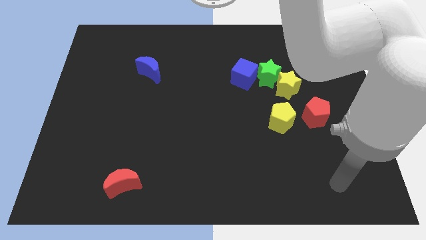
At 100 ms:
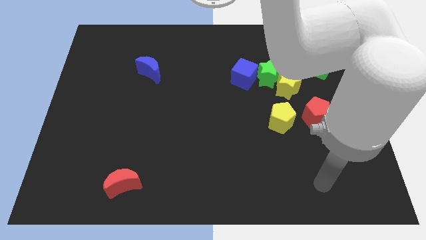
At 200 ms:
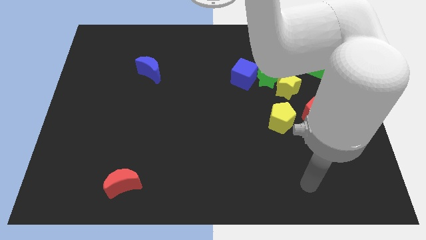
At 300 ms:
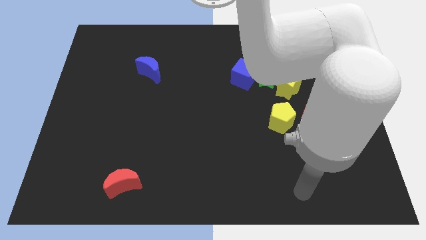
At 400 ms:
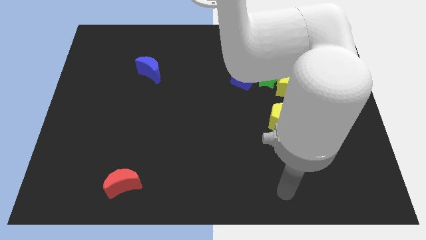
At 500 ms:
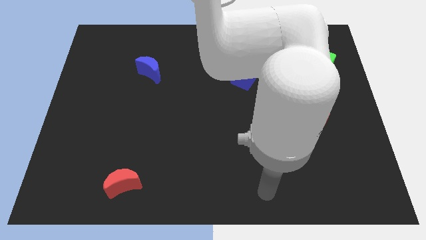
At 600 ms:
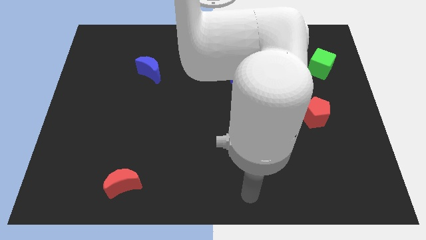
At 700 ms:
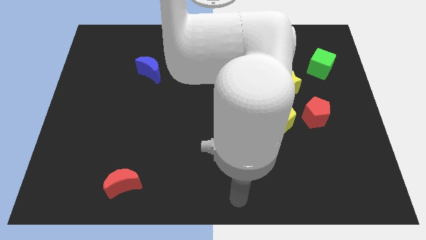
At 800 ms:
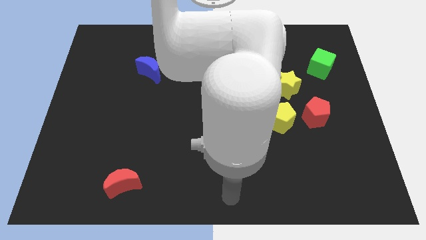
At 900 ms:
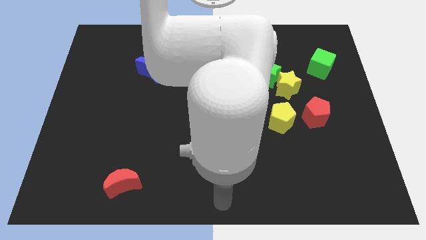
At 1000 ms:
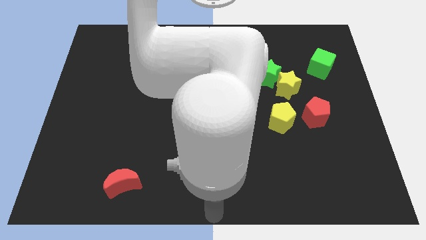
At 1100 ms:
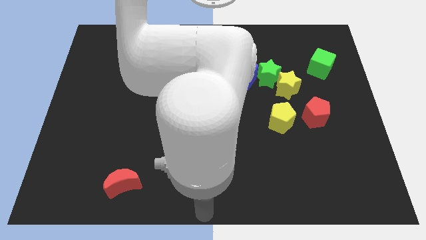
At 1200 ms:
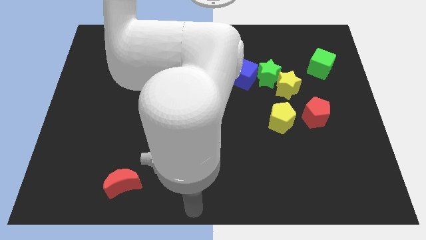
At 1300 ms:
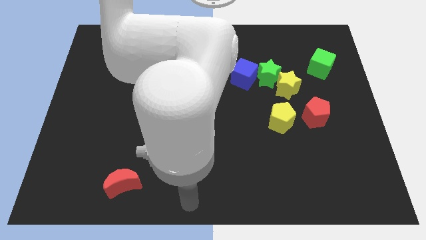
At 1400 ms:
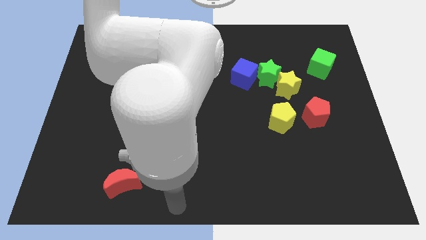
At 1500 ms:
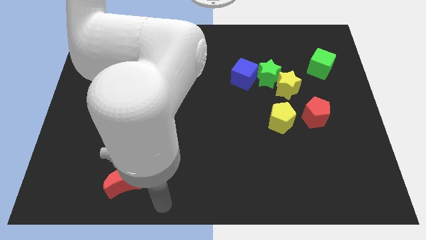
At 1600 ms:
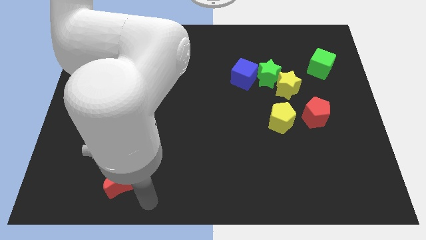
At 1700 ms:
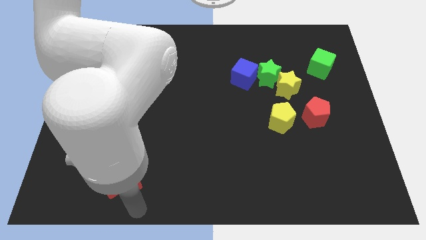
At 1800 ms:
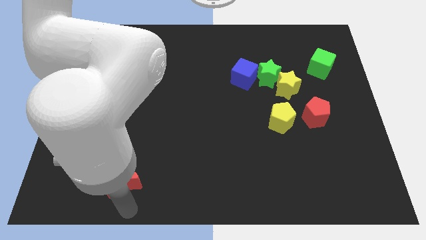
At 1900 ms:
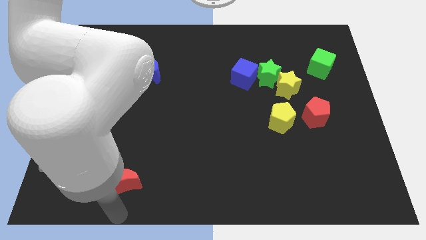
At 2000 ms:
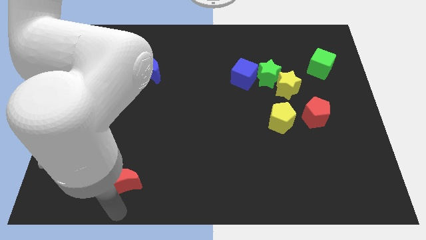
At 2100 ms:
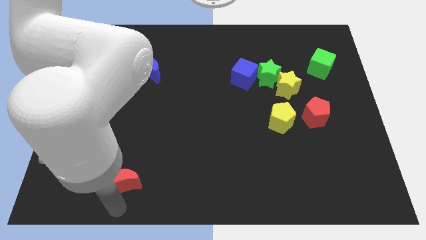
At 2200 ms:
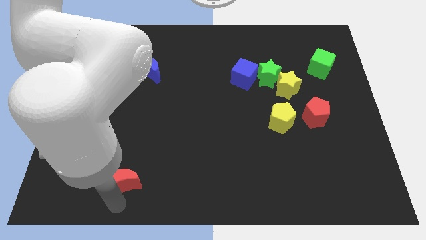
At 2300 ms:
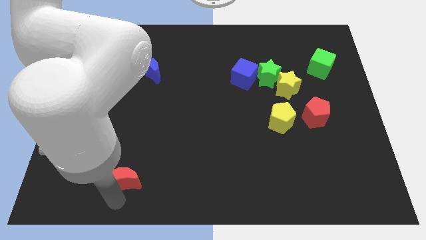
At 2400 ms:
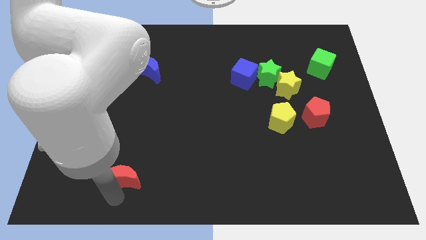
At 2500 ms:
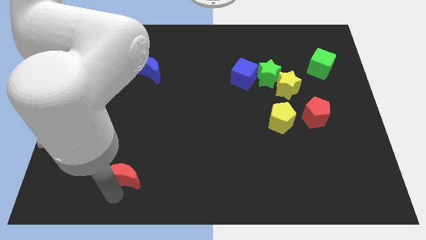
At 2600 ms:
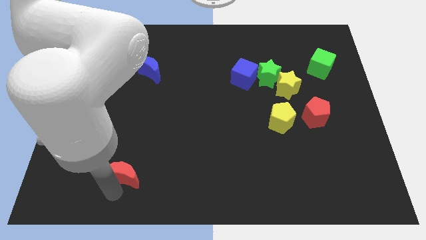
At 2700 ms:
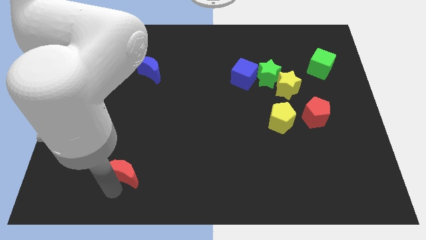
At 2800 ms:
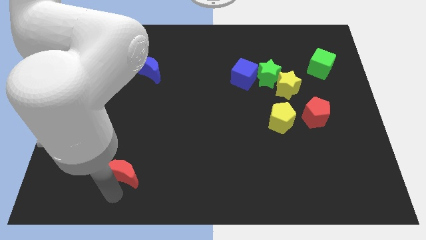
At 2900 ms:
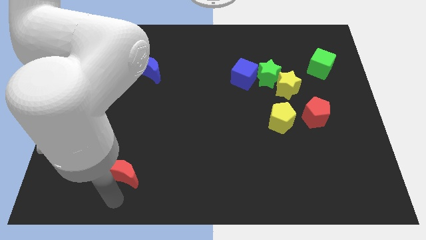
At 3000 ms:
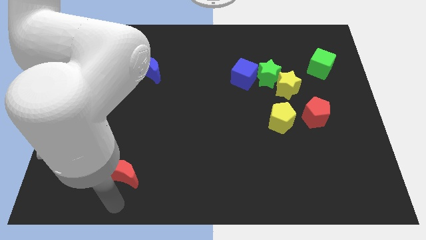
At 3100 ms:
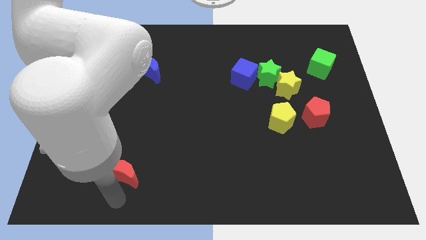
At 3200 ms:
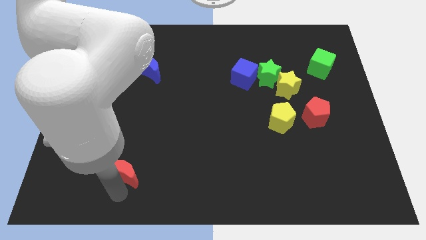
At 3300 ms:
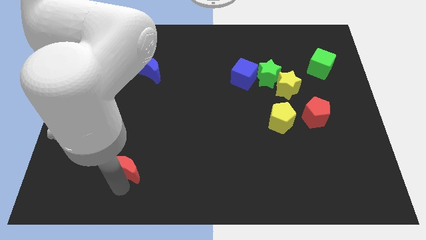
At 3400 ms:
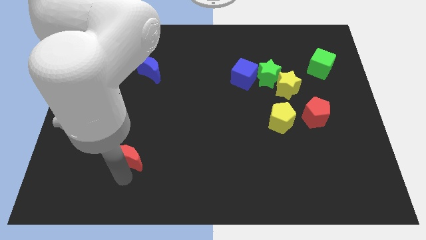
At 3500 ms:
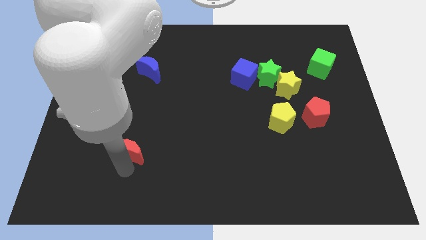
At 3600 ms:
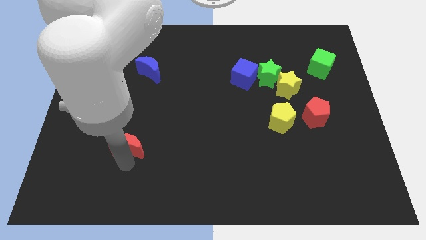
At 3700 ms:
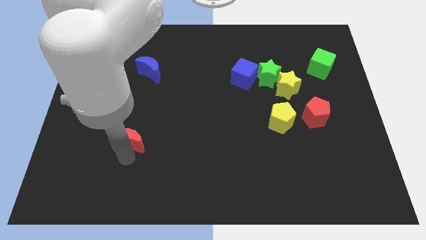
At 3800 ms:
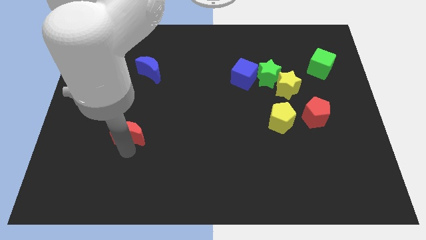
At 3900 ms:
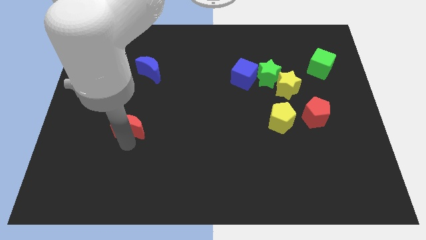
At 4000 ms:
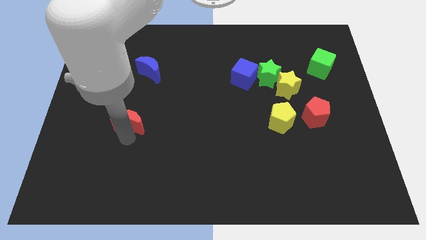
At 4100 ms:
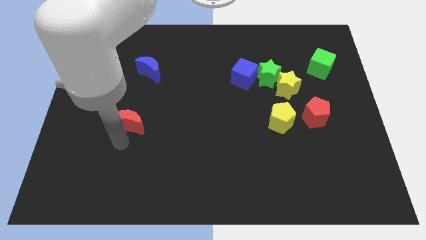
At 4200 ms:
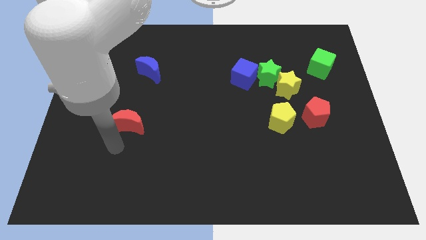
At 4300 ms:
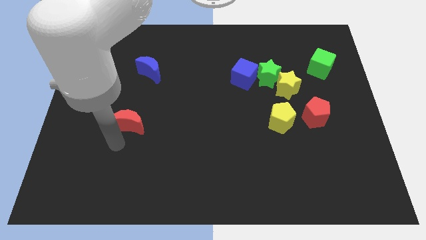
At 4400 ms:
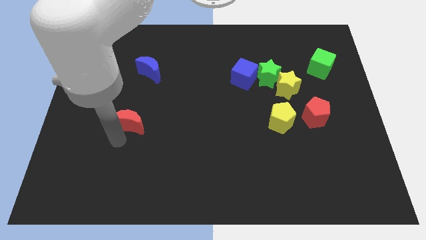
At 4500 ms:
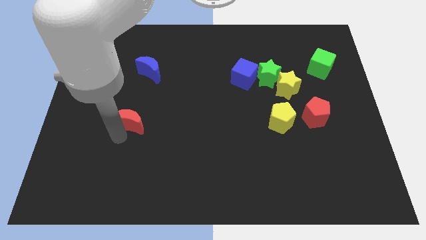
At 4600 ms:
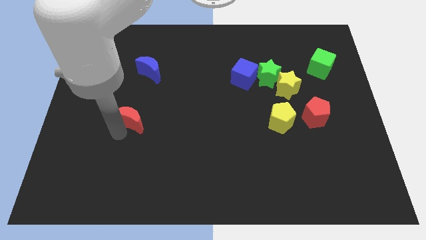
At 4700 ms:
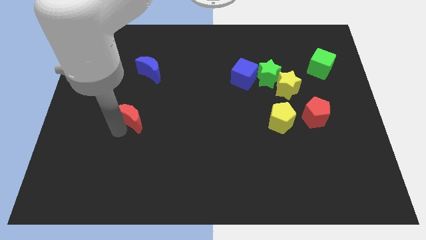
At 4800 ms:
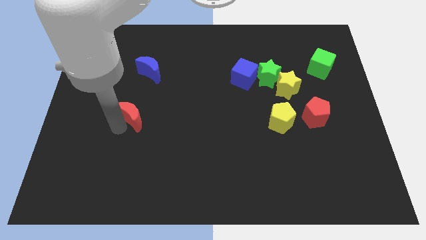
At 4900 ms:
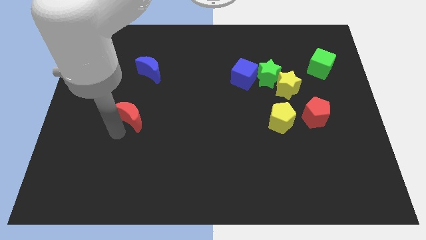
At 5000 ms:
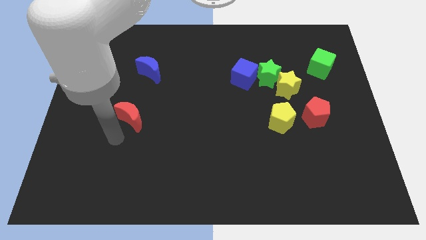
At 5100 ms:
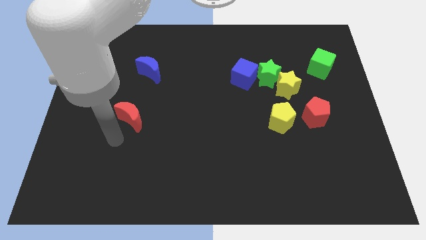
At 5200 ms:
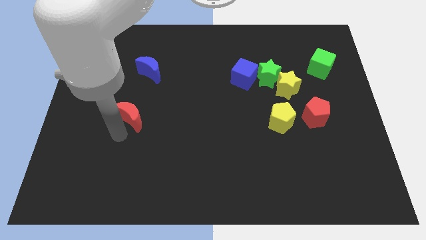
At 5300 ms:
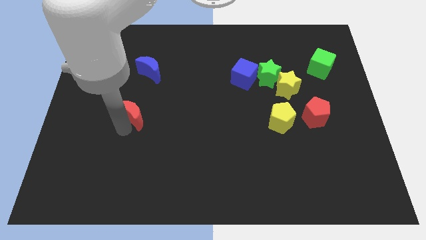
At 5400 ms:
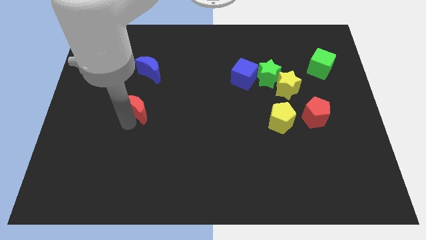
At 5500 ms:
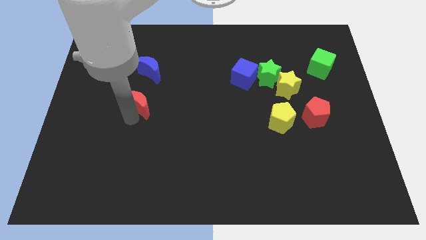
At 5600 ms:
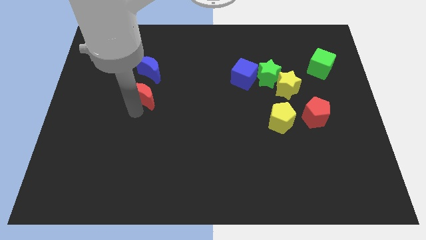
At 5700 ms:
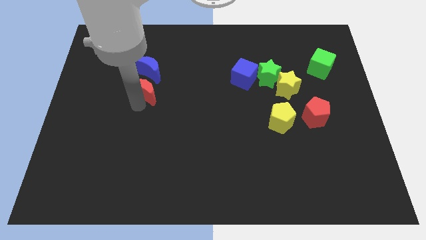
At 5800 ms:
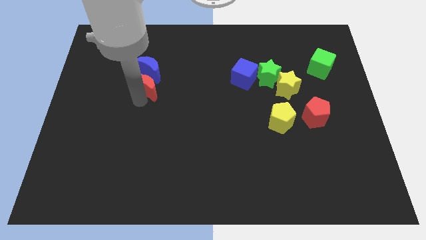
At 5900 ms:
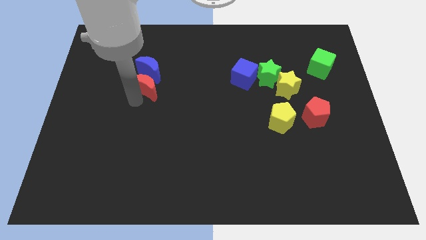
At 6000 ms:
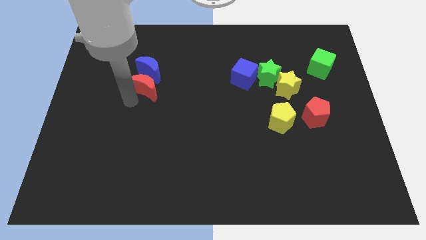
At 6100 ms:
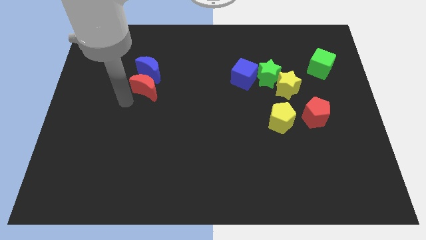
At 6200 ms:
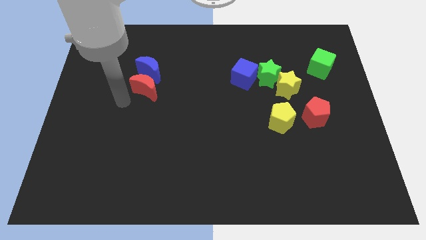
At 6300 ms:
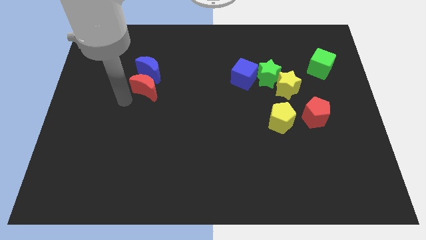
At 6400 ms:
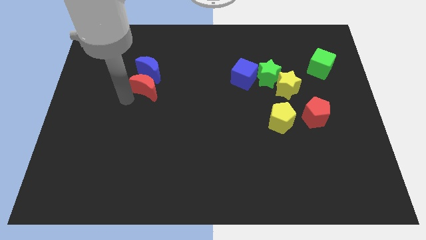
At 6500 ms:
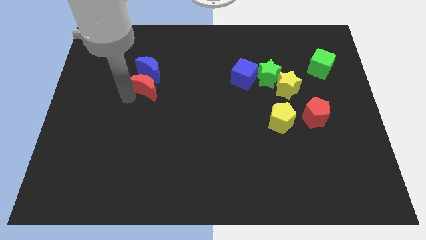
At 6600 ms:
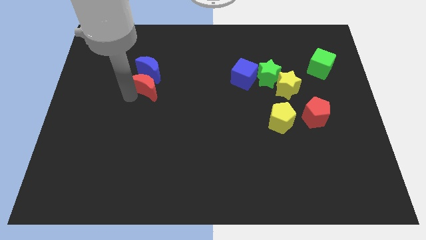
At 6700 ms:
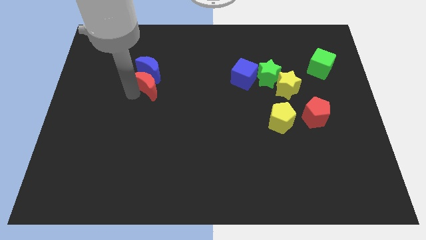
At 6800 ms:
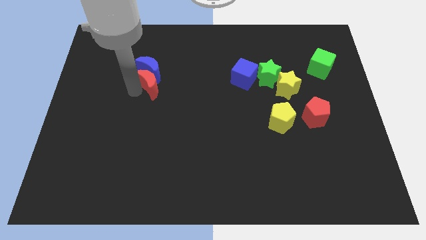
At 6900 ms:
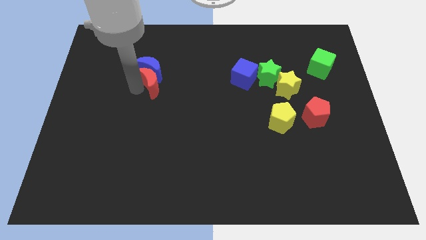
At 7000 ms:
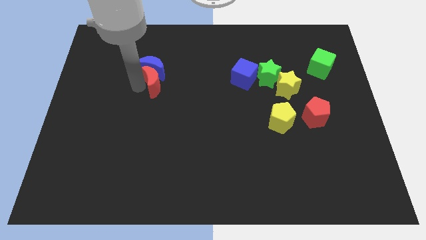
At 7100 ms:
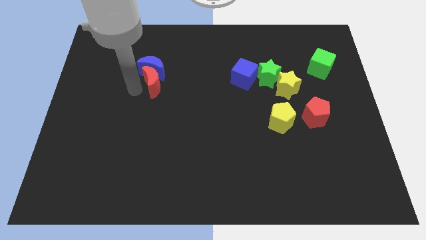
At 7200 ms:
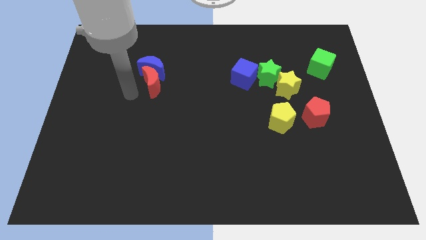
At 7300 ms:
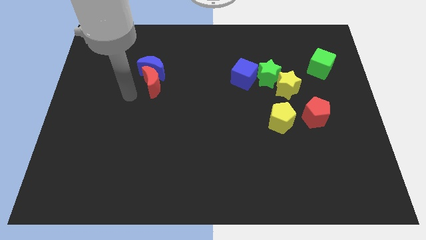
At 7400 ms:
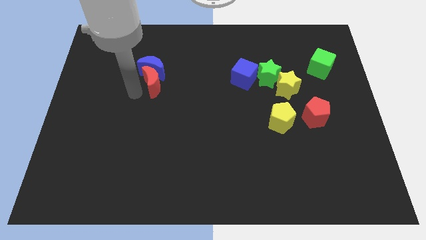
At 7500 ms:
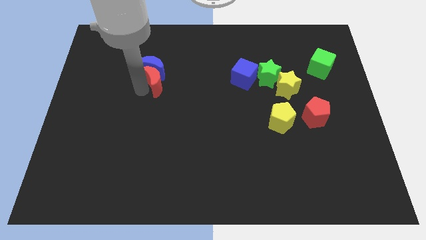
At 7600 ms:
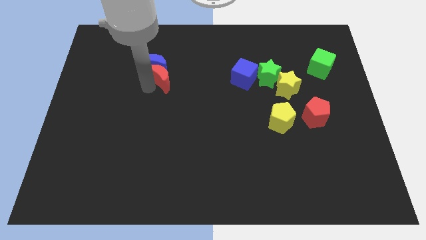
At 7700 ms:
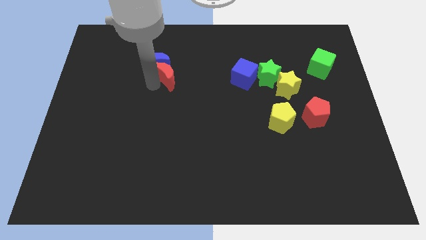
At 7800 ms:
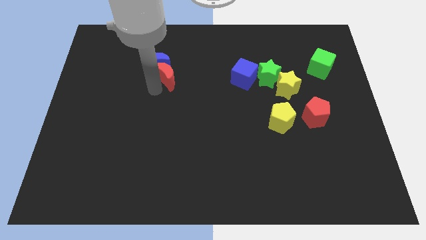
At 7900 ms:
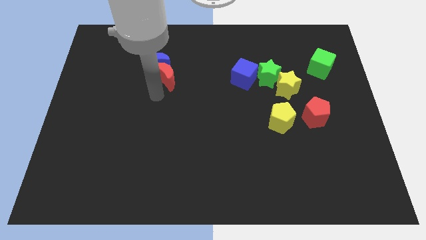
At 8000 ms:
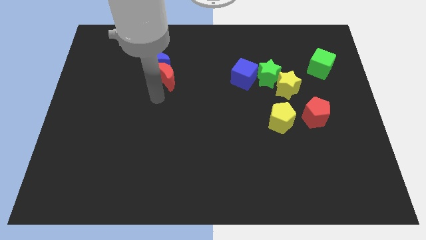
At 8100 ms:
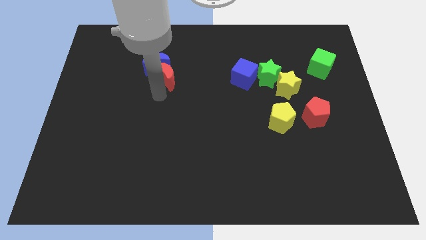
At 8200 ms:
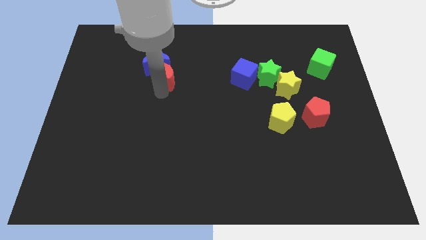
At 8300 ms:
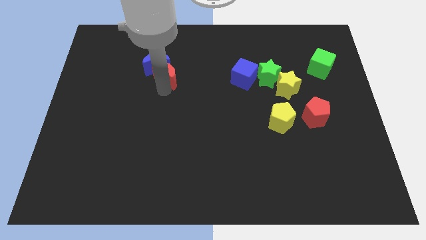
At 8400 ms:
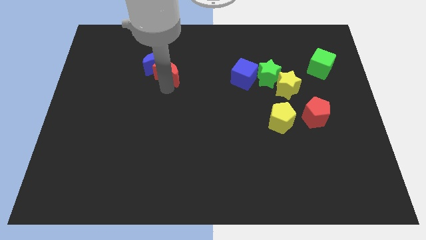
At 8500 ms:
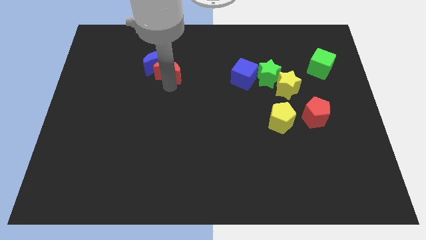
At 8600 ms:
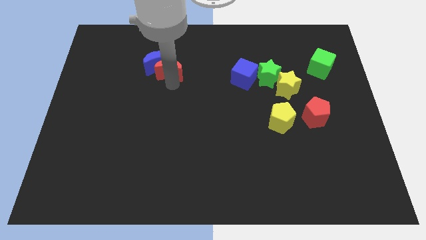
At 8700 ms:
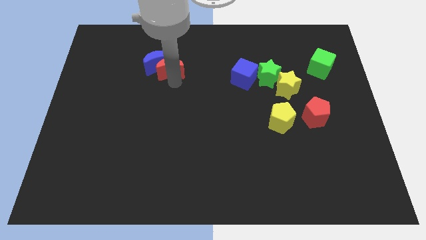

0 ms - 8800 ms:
slide the red moon to the top right of the blue moon
